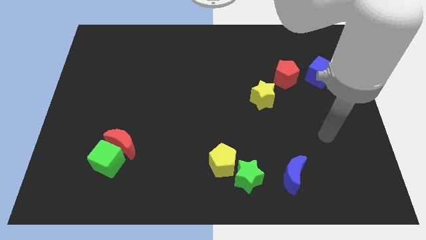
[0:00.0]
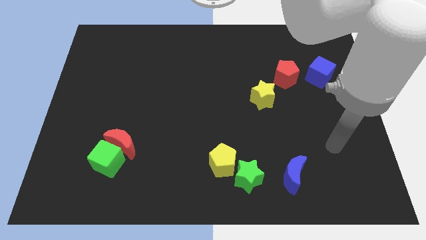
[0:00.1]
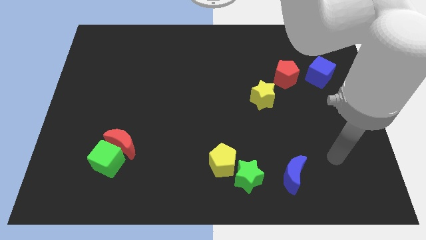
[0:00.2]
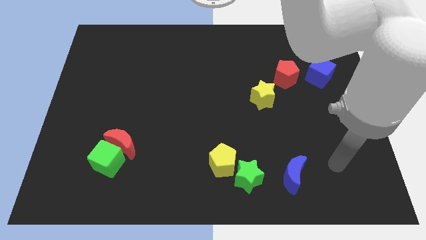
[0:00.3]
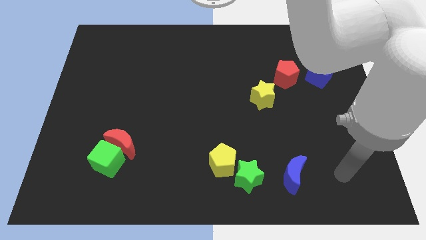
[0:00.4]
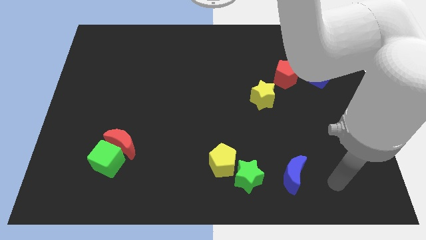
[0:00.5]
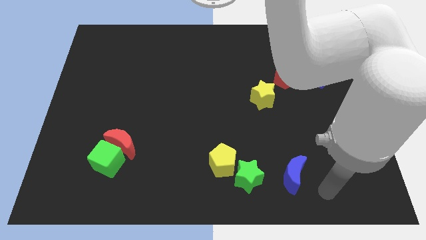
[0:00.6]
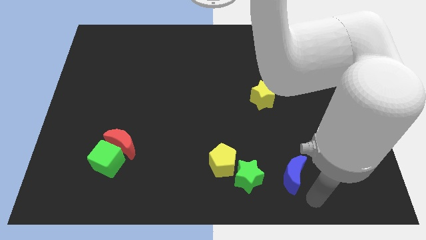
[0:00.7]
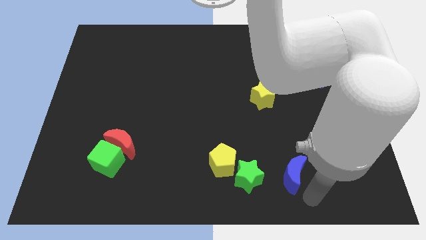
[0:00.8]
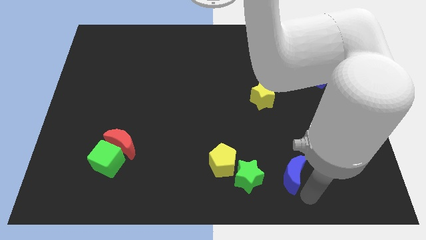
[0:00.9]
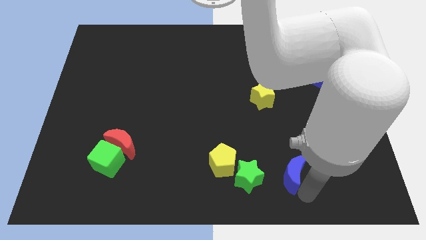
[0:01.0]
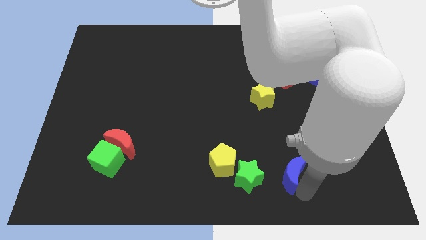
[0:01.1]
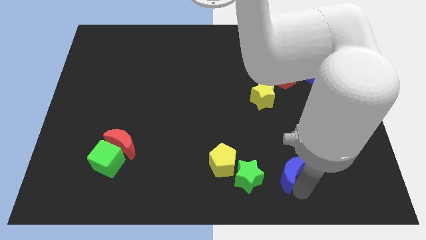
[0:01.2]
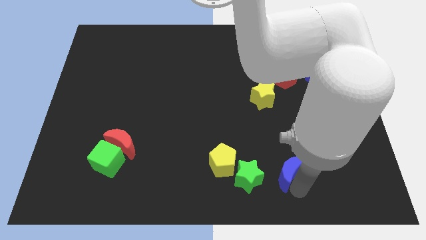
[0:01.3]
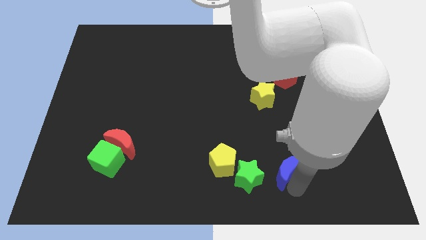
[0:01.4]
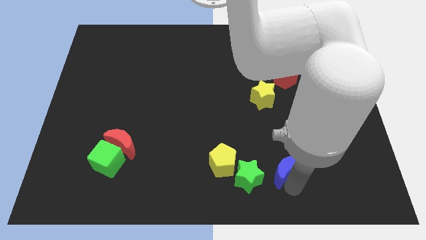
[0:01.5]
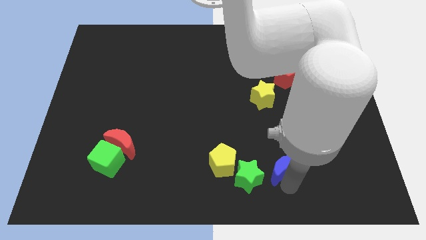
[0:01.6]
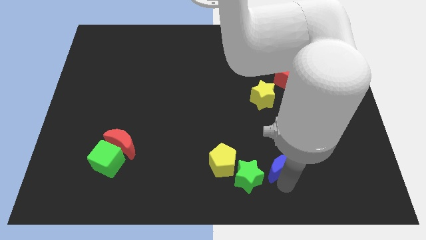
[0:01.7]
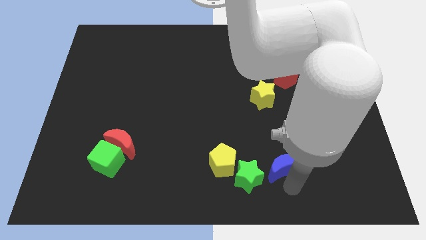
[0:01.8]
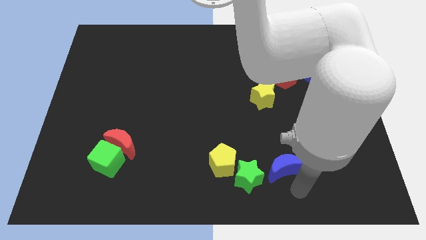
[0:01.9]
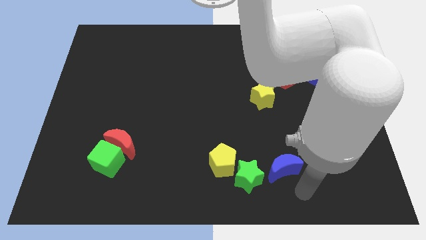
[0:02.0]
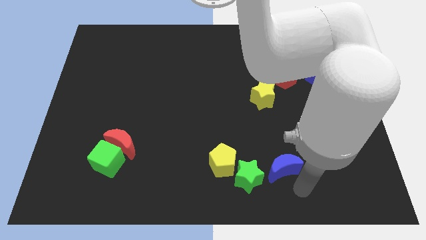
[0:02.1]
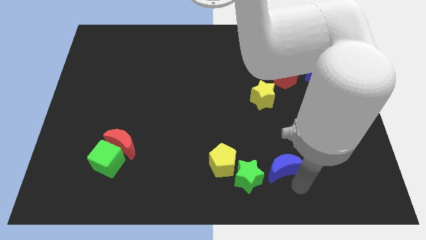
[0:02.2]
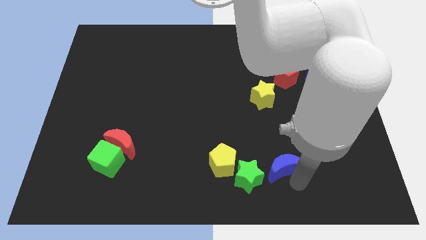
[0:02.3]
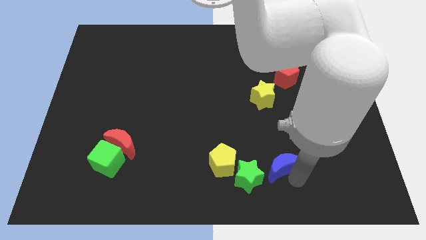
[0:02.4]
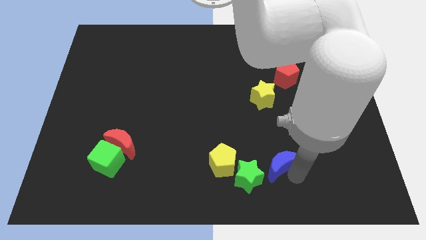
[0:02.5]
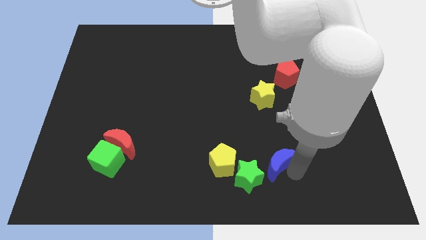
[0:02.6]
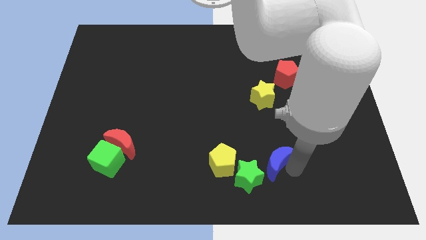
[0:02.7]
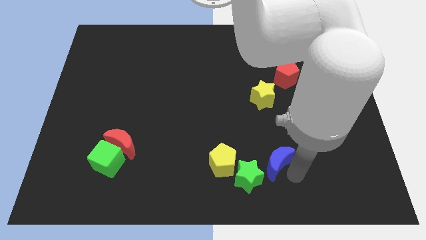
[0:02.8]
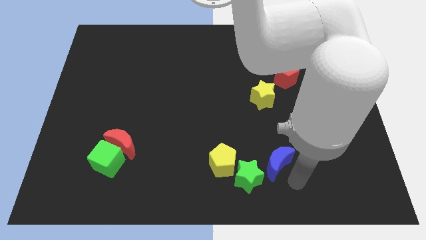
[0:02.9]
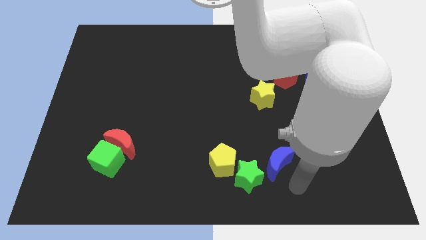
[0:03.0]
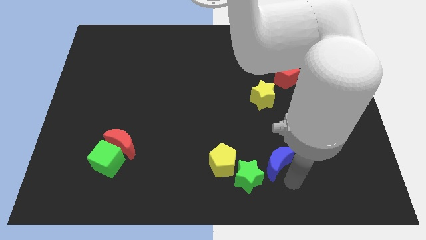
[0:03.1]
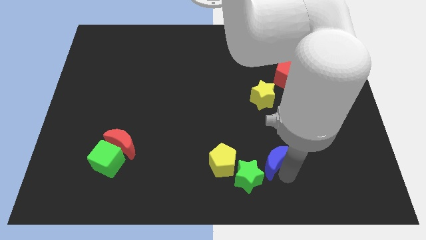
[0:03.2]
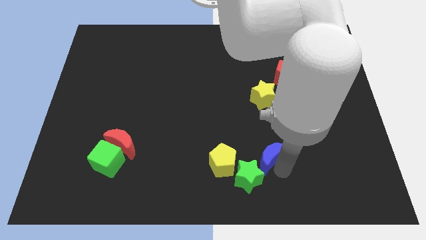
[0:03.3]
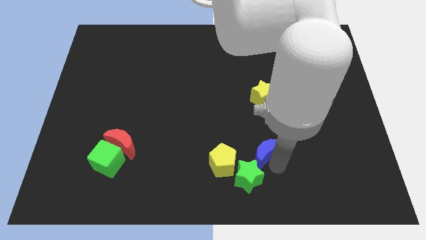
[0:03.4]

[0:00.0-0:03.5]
slide the blue moon a little bit up and left diagonally

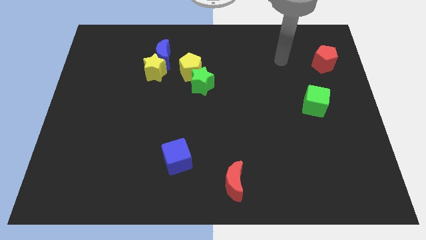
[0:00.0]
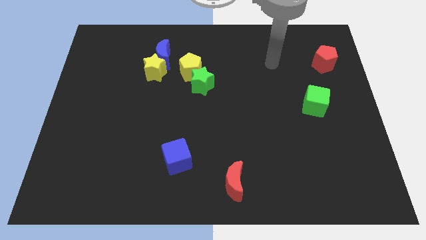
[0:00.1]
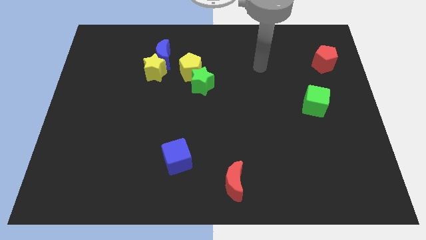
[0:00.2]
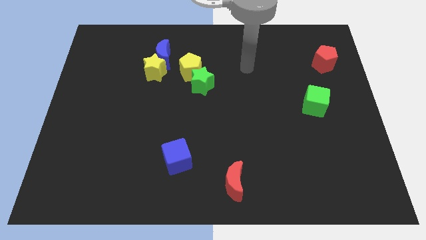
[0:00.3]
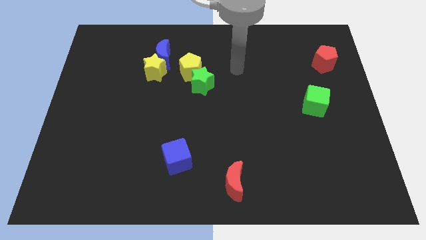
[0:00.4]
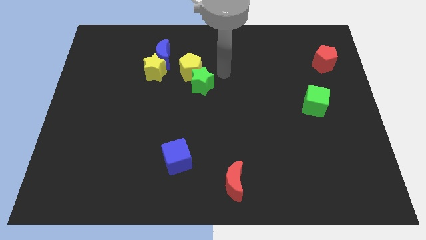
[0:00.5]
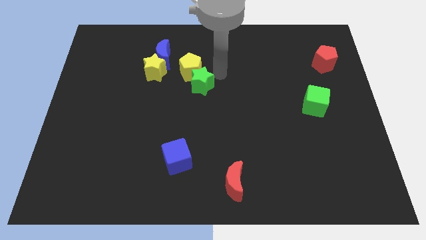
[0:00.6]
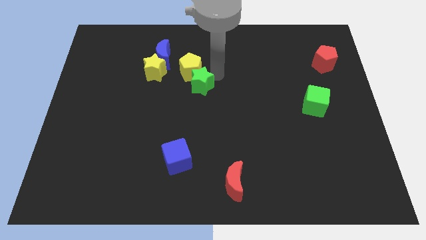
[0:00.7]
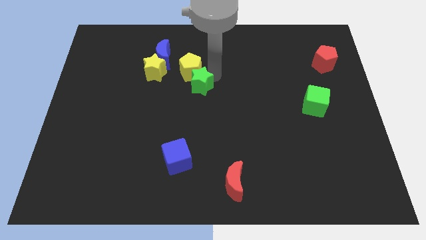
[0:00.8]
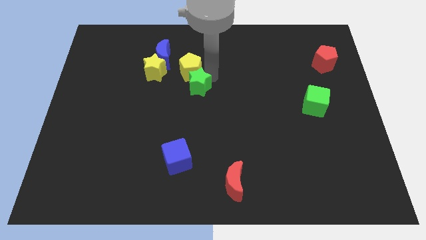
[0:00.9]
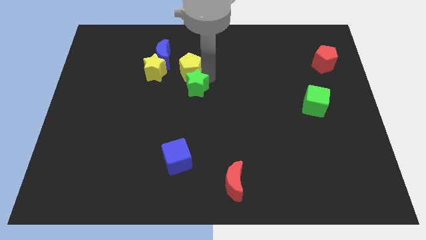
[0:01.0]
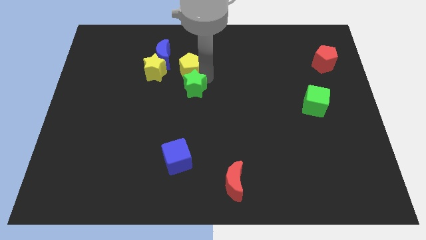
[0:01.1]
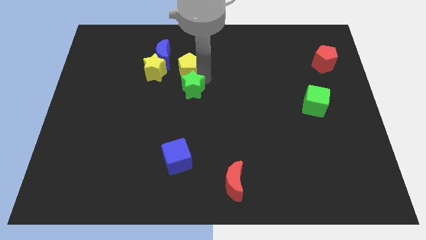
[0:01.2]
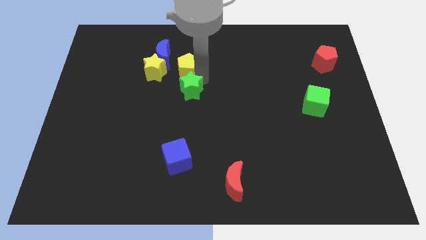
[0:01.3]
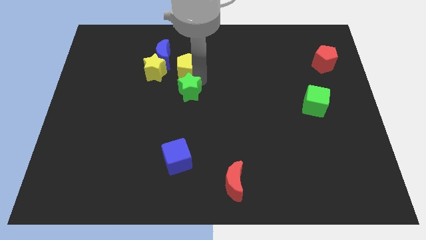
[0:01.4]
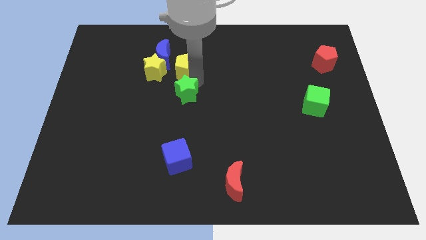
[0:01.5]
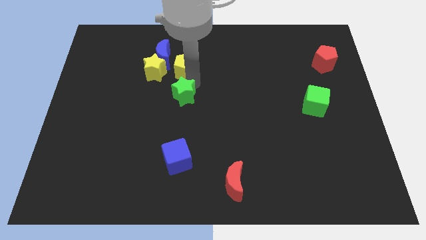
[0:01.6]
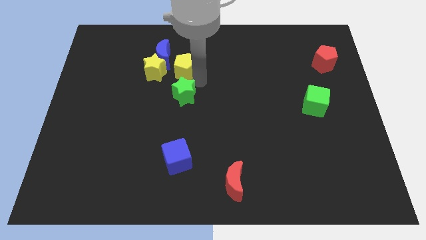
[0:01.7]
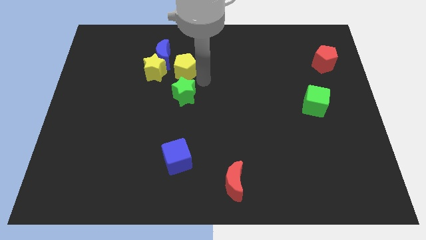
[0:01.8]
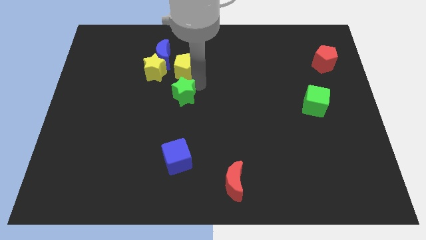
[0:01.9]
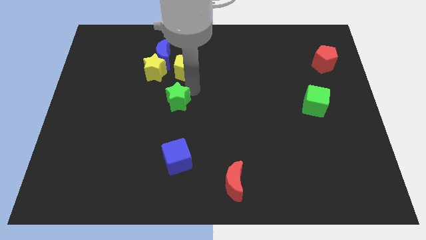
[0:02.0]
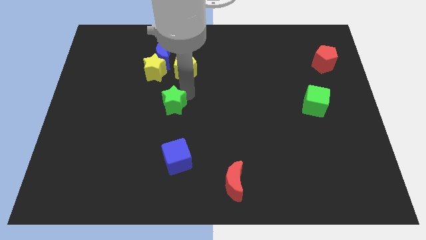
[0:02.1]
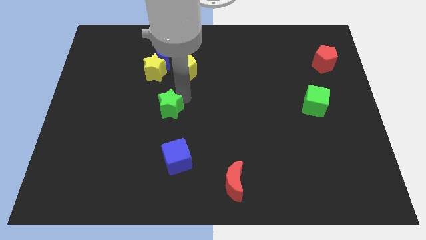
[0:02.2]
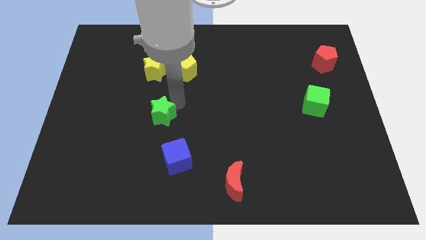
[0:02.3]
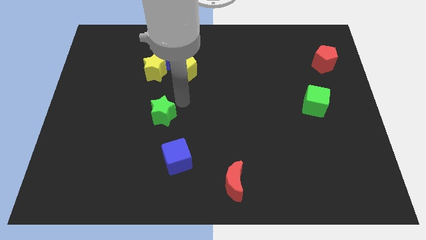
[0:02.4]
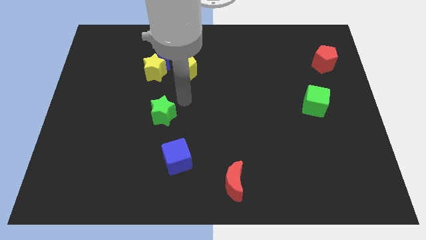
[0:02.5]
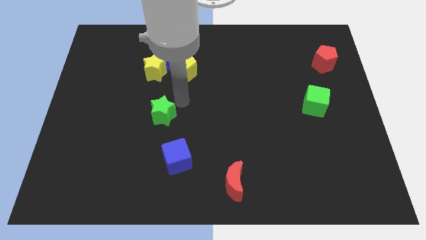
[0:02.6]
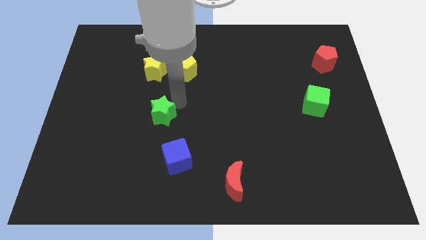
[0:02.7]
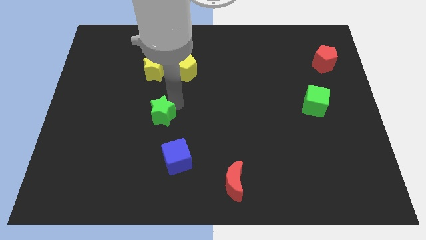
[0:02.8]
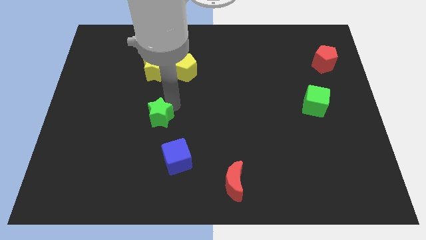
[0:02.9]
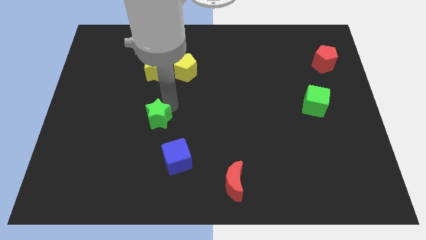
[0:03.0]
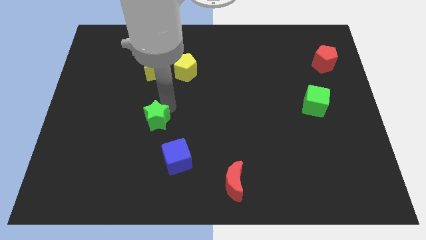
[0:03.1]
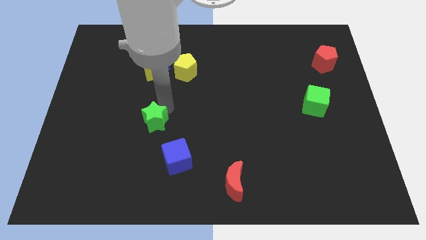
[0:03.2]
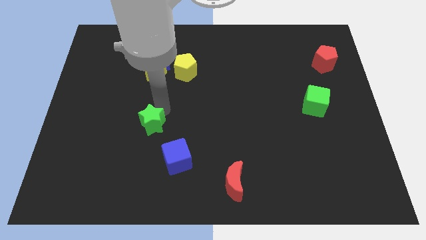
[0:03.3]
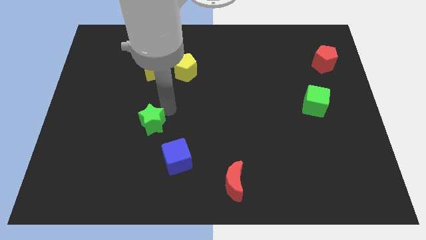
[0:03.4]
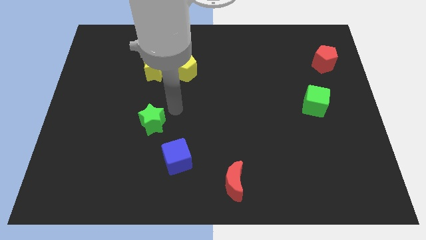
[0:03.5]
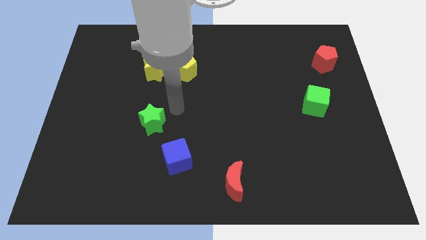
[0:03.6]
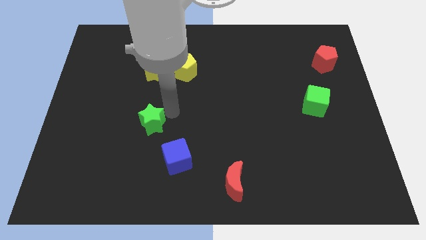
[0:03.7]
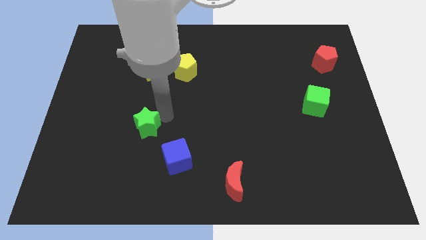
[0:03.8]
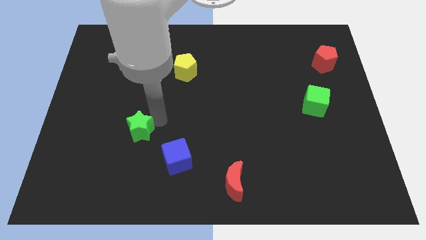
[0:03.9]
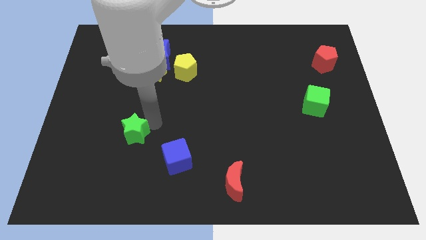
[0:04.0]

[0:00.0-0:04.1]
slide the green star diagonally down and to the left
